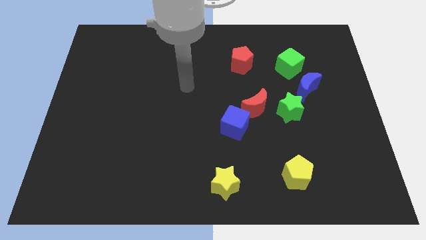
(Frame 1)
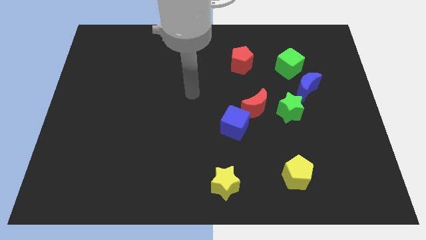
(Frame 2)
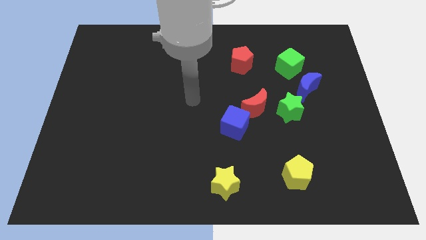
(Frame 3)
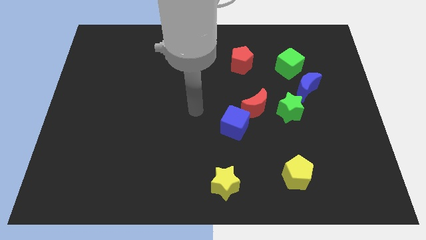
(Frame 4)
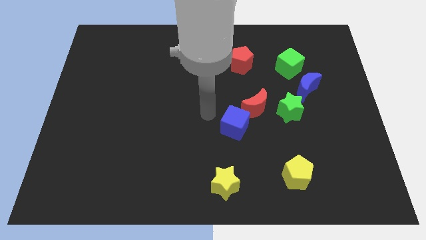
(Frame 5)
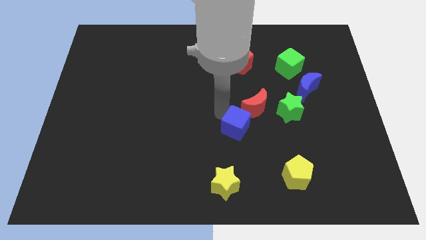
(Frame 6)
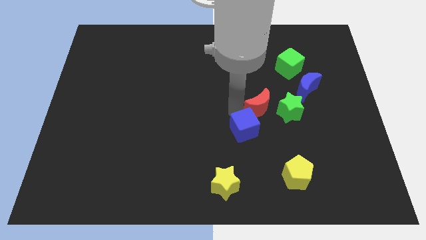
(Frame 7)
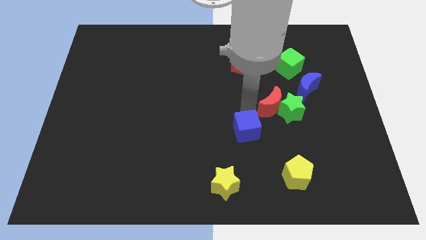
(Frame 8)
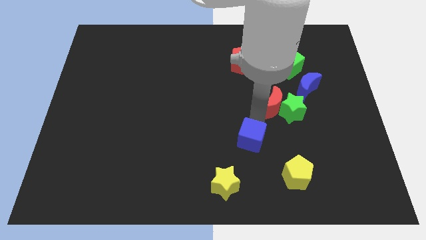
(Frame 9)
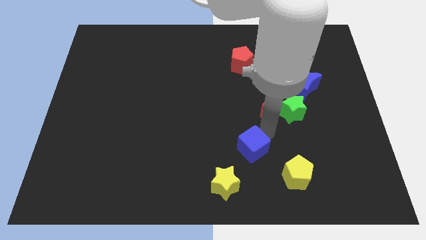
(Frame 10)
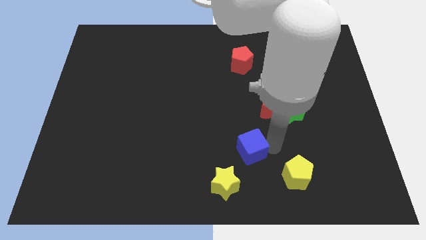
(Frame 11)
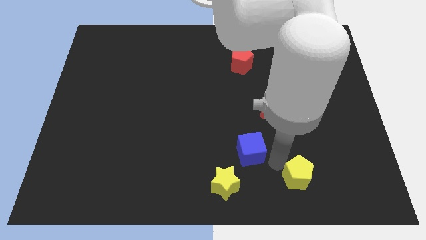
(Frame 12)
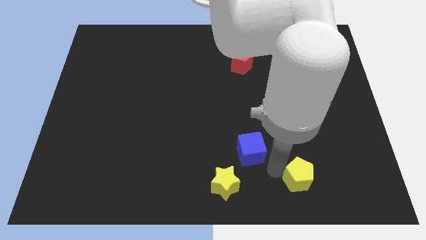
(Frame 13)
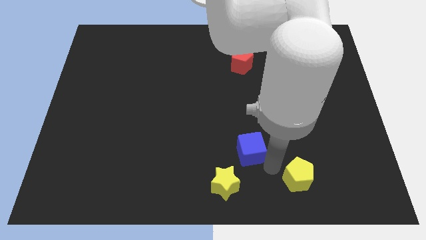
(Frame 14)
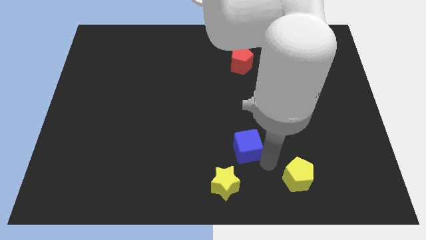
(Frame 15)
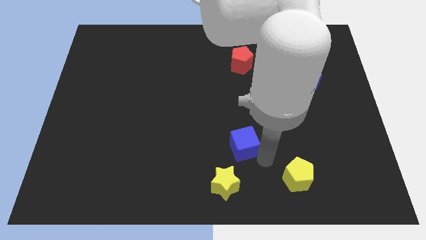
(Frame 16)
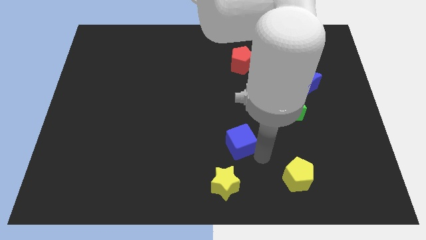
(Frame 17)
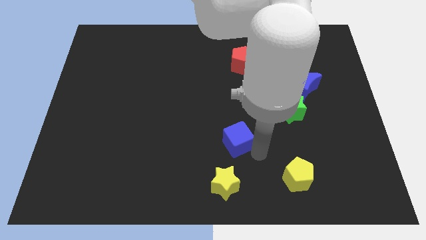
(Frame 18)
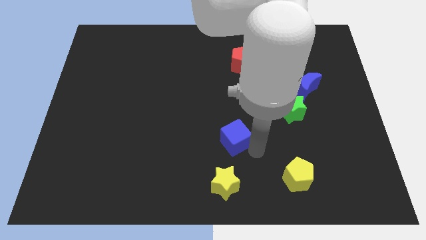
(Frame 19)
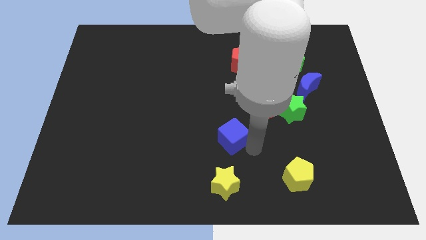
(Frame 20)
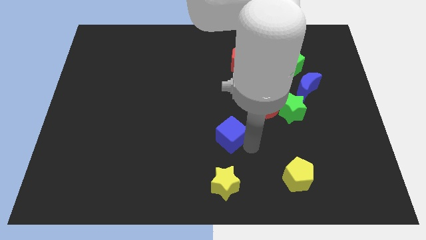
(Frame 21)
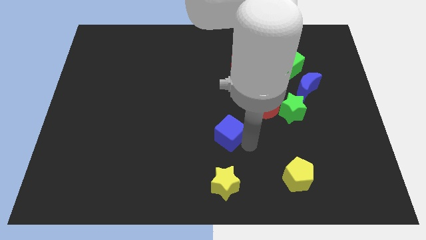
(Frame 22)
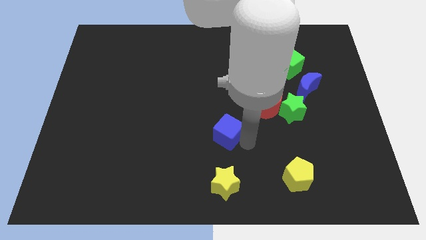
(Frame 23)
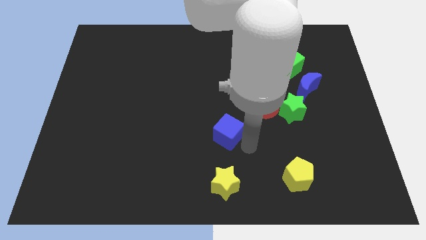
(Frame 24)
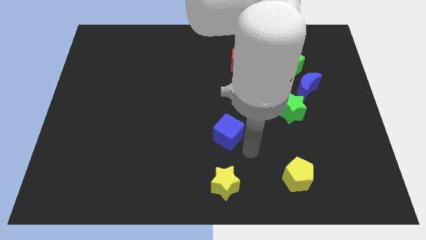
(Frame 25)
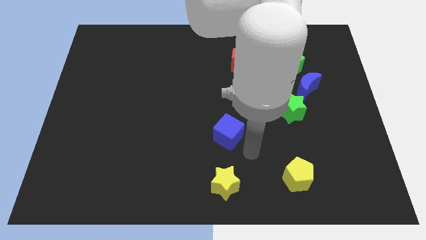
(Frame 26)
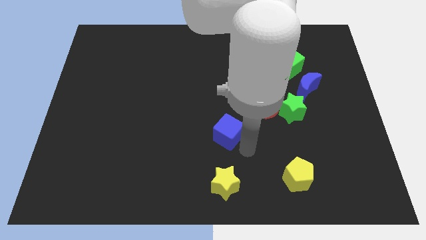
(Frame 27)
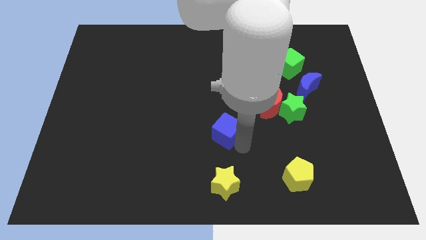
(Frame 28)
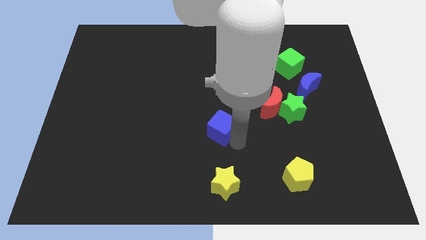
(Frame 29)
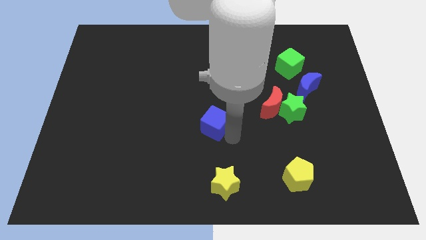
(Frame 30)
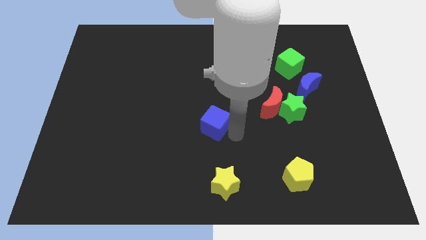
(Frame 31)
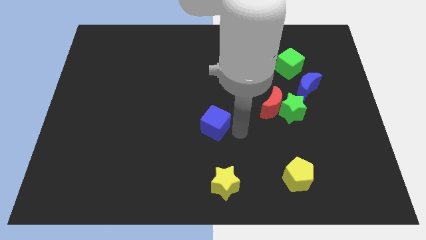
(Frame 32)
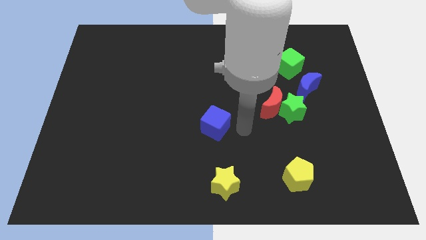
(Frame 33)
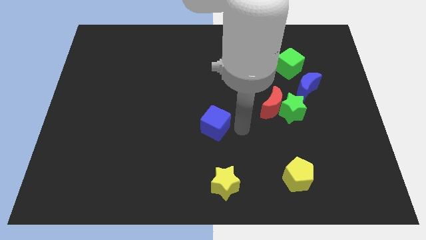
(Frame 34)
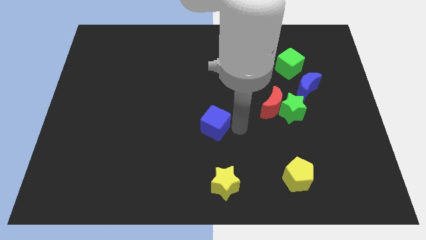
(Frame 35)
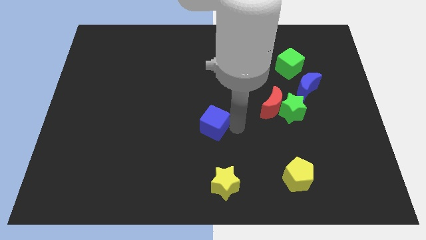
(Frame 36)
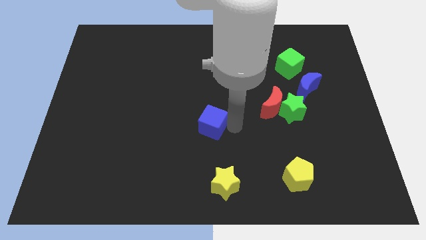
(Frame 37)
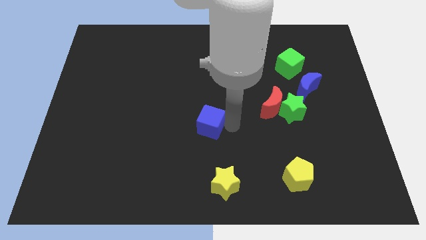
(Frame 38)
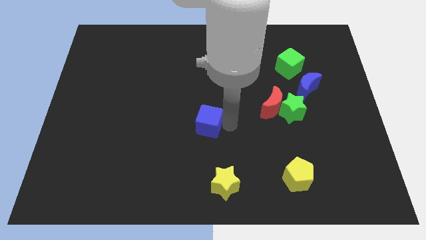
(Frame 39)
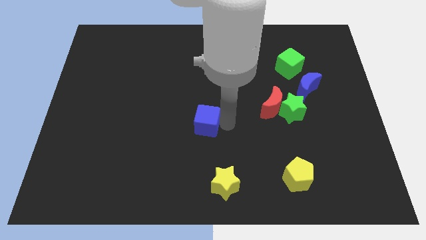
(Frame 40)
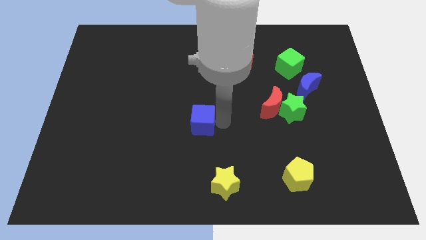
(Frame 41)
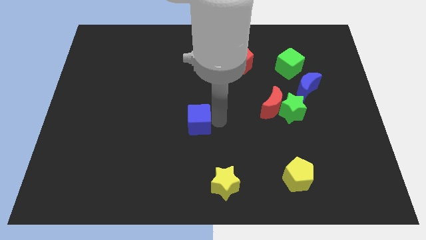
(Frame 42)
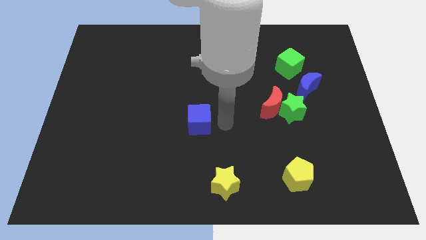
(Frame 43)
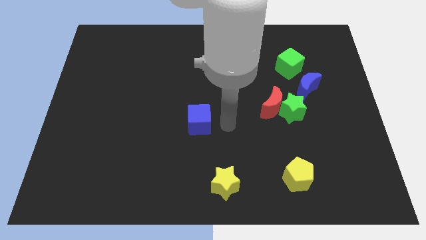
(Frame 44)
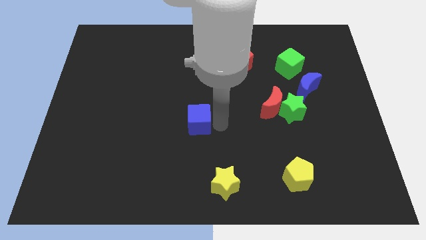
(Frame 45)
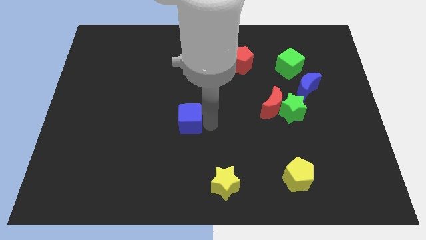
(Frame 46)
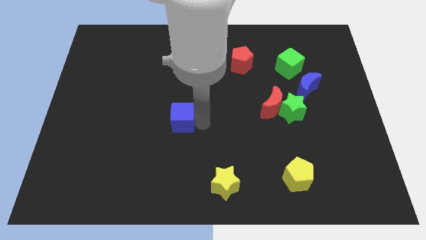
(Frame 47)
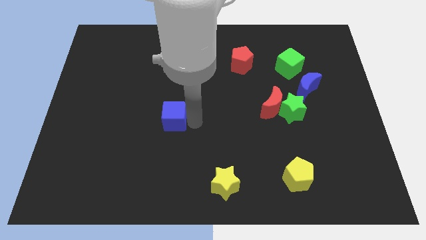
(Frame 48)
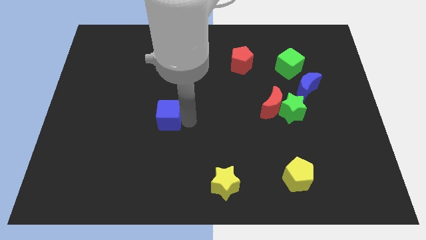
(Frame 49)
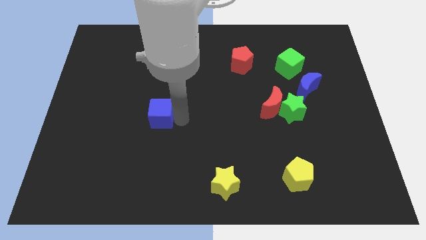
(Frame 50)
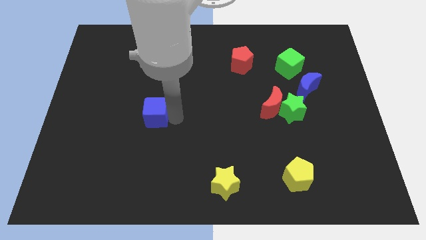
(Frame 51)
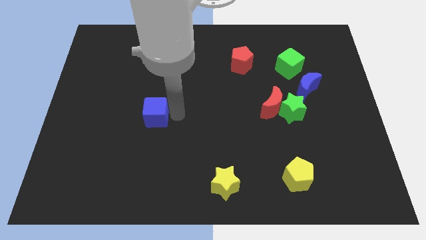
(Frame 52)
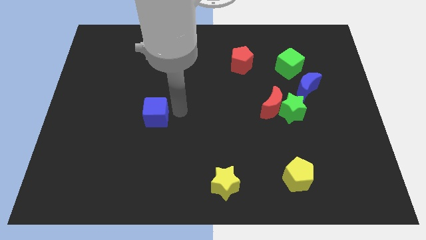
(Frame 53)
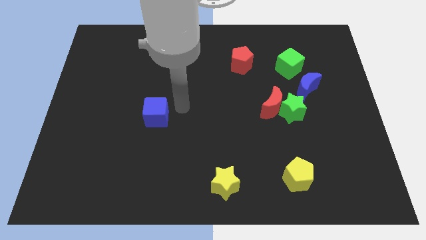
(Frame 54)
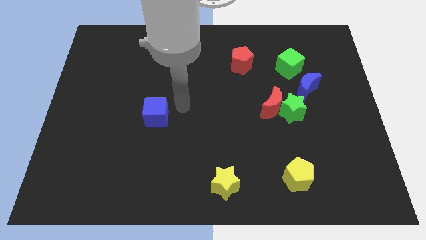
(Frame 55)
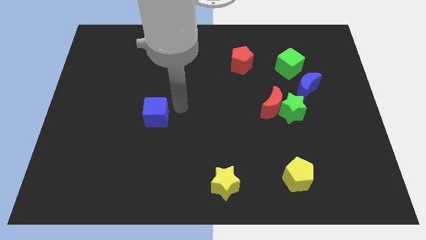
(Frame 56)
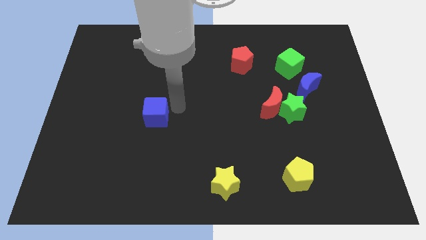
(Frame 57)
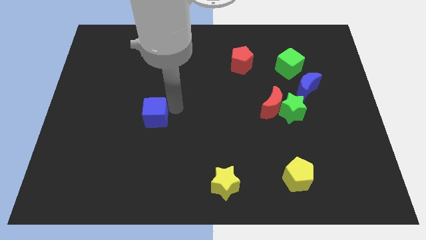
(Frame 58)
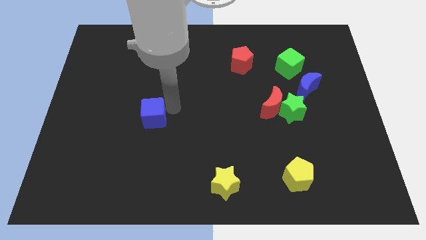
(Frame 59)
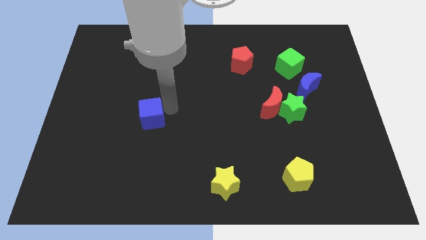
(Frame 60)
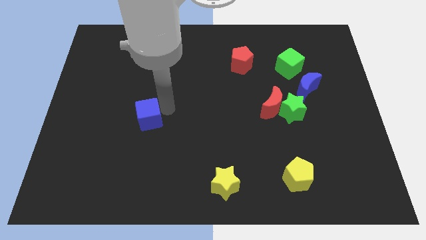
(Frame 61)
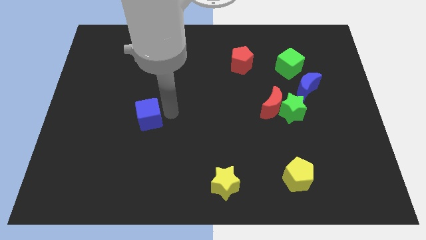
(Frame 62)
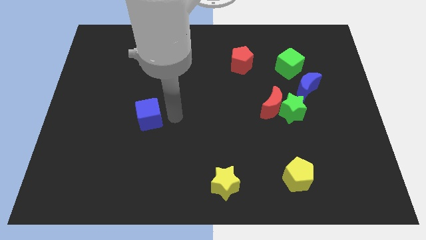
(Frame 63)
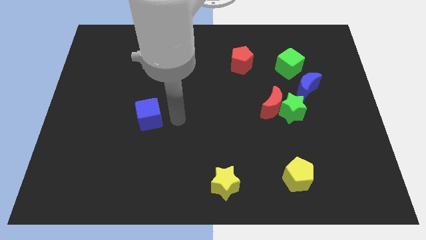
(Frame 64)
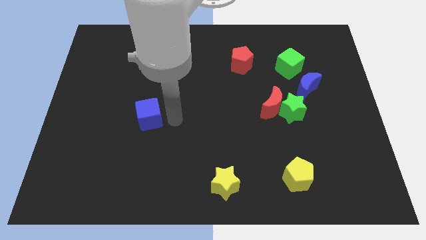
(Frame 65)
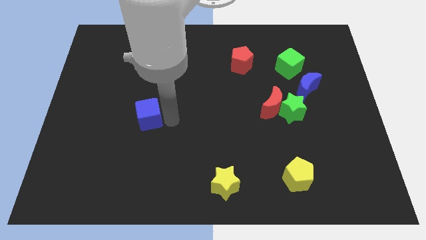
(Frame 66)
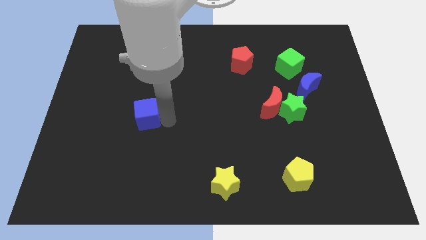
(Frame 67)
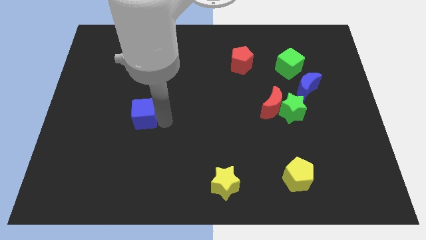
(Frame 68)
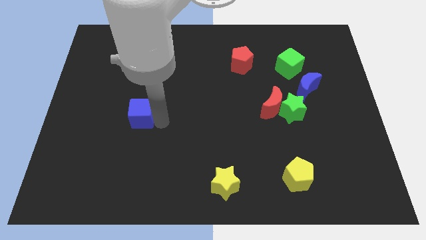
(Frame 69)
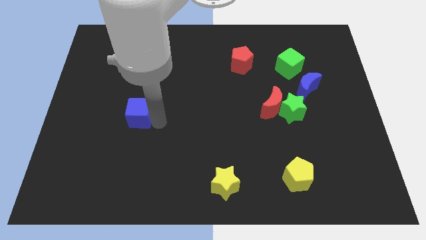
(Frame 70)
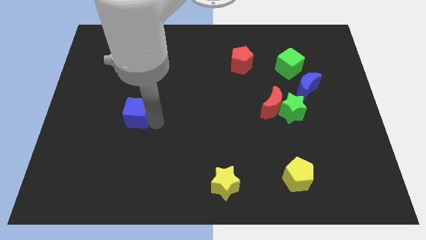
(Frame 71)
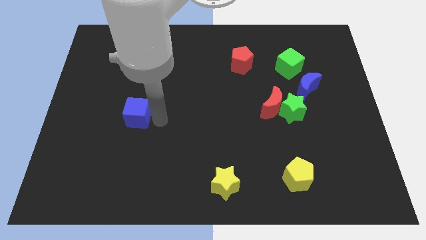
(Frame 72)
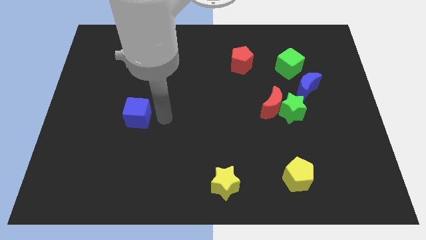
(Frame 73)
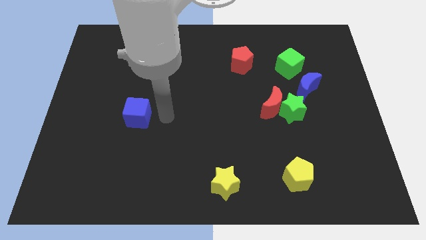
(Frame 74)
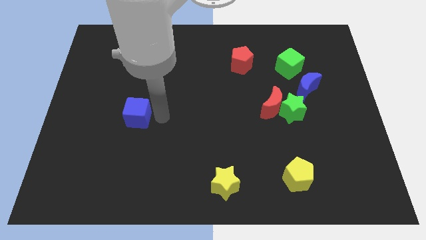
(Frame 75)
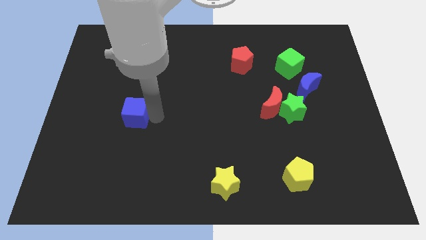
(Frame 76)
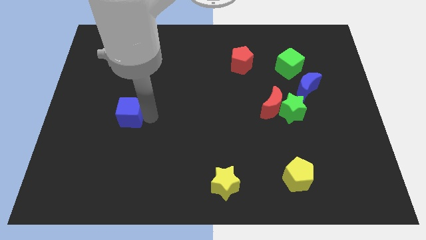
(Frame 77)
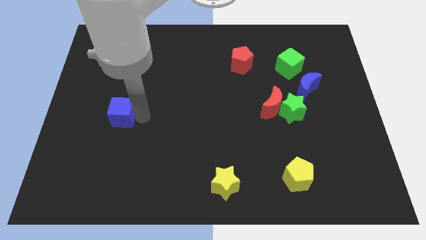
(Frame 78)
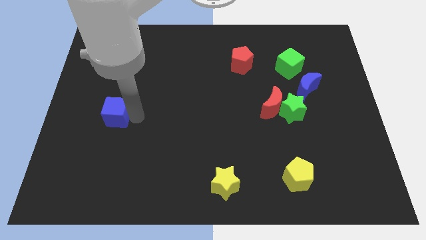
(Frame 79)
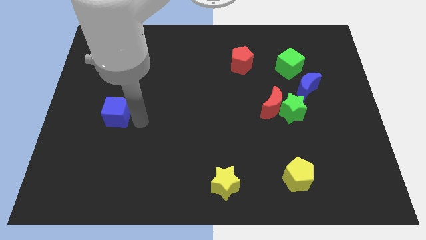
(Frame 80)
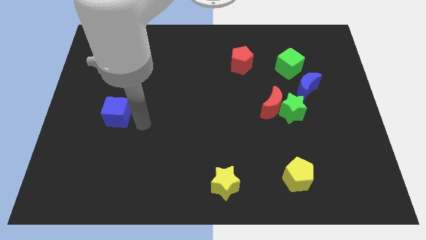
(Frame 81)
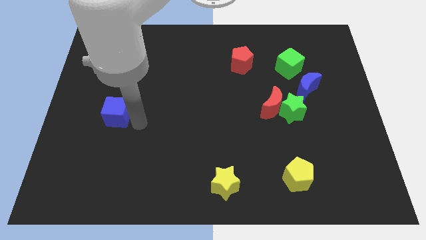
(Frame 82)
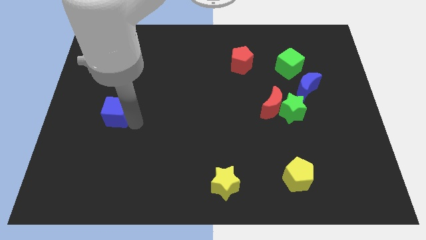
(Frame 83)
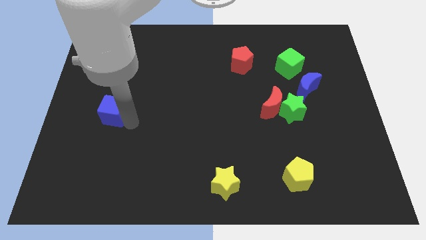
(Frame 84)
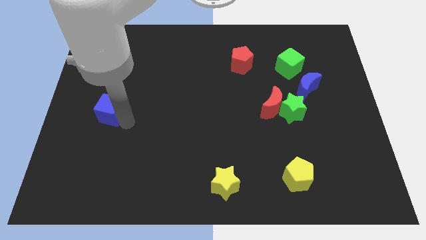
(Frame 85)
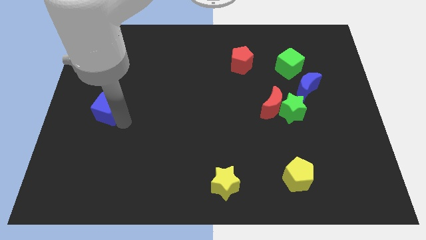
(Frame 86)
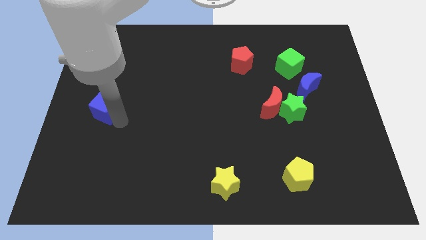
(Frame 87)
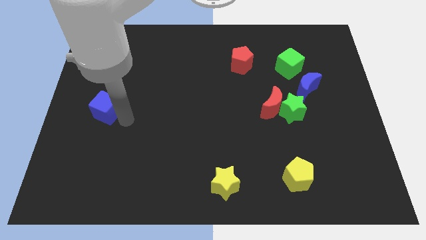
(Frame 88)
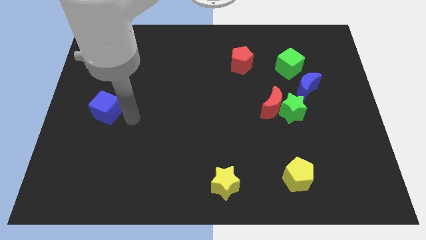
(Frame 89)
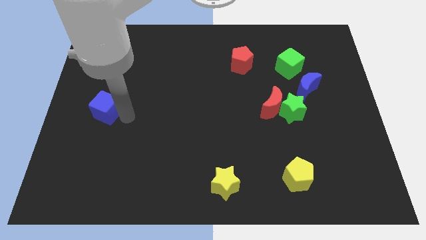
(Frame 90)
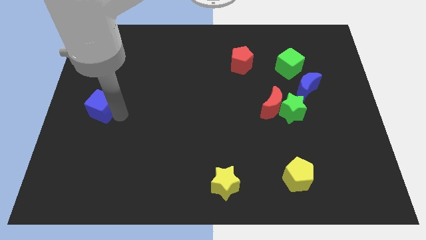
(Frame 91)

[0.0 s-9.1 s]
push the blue cube to the center left
